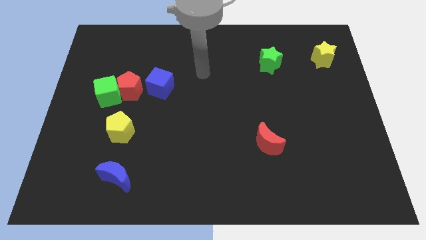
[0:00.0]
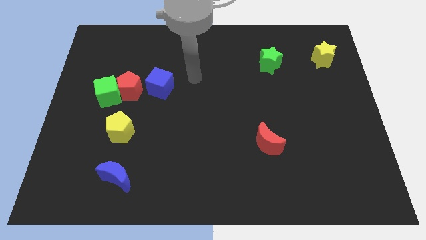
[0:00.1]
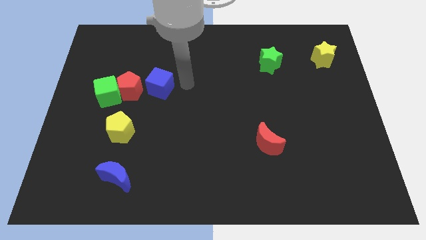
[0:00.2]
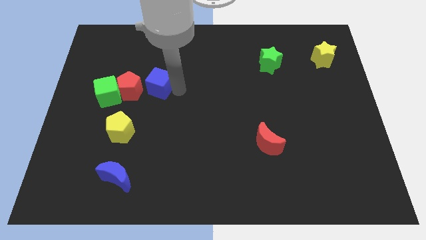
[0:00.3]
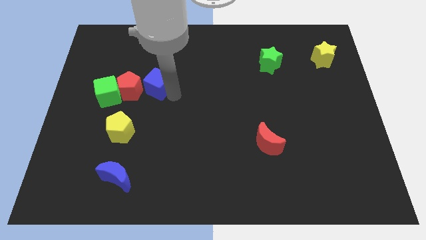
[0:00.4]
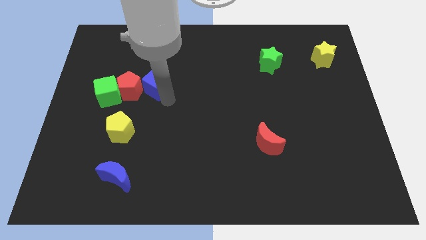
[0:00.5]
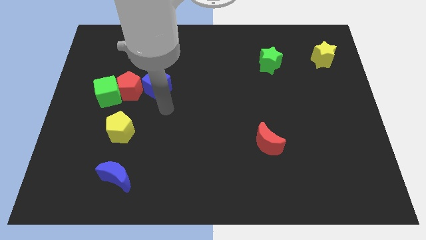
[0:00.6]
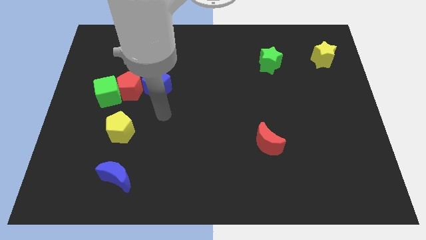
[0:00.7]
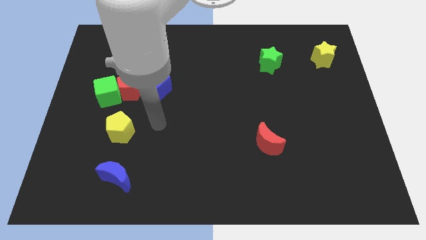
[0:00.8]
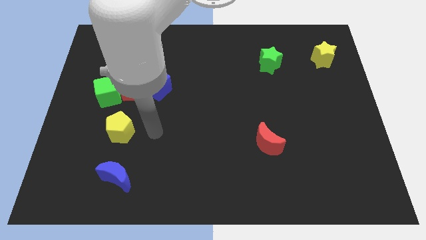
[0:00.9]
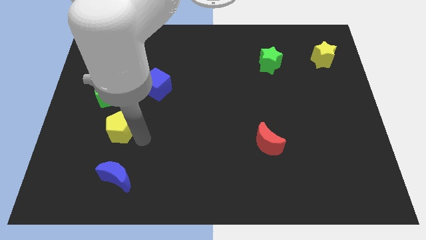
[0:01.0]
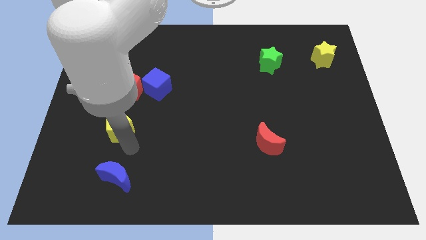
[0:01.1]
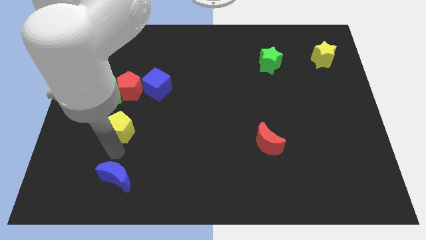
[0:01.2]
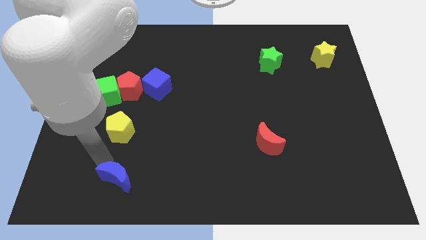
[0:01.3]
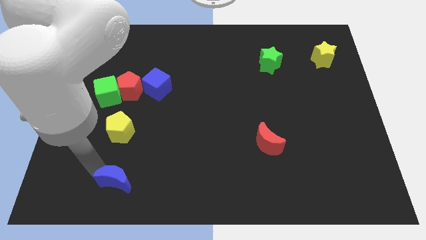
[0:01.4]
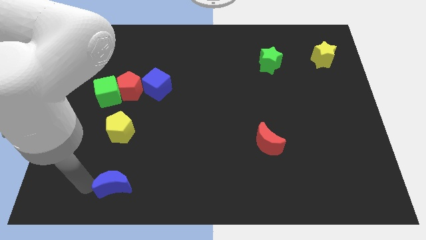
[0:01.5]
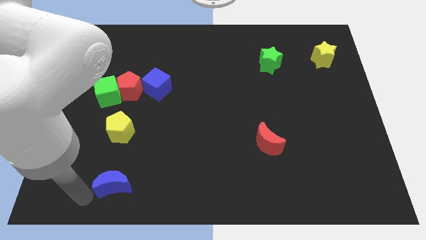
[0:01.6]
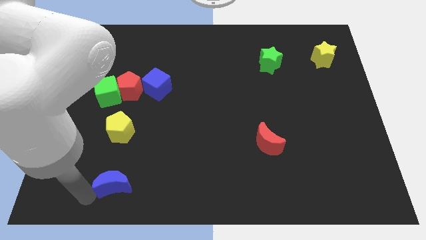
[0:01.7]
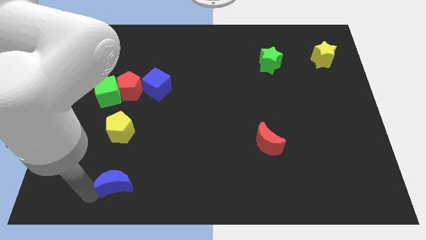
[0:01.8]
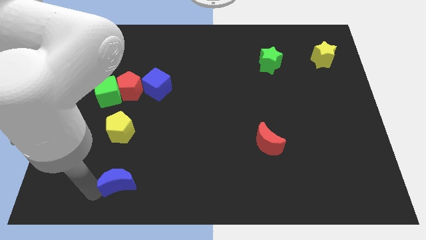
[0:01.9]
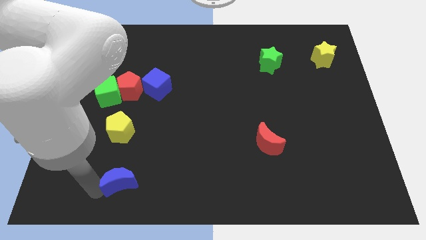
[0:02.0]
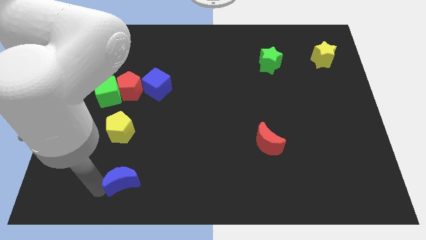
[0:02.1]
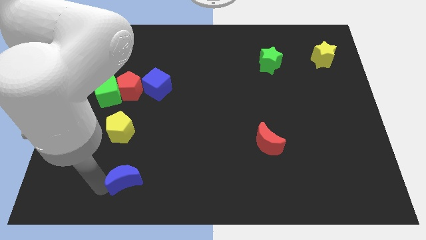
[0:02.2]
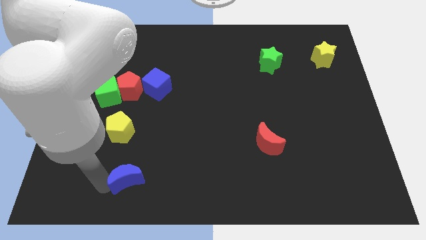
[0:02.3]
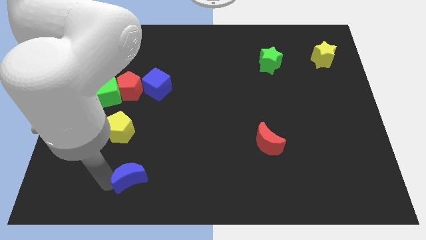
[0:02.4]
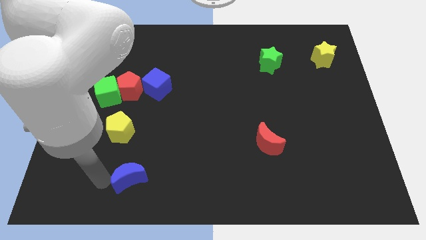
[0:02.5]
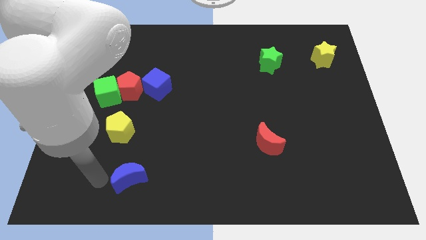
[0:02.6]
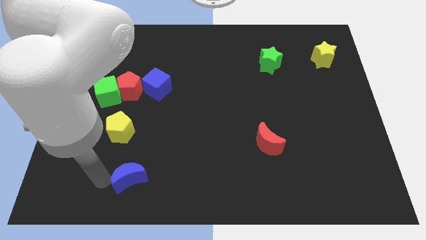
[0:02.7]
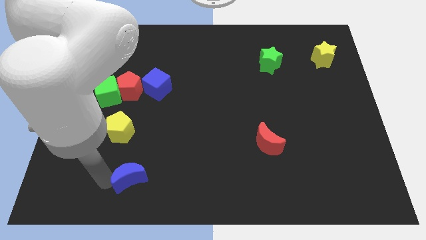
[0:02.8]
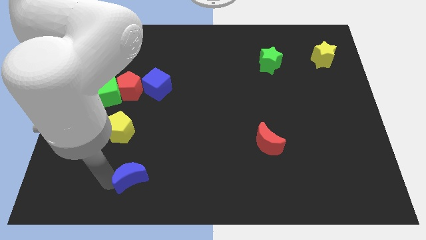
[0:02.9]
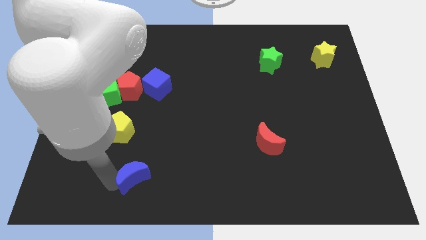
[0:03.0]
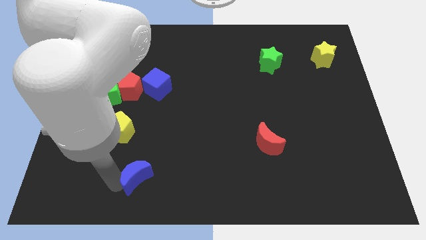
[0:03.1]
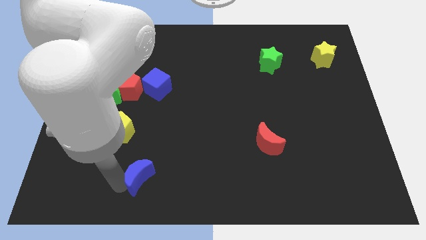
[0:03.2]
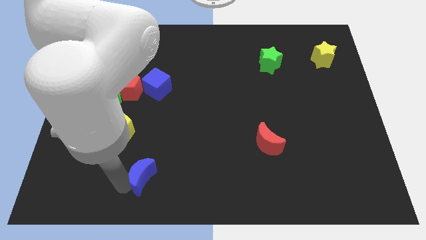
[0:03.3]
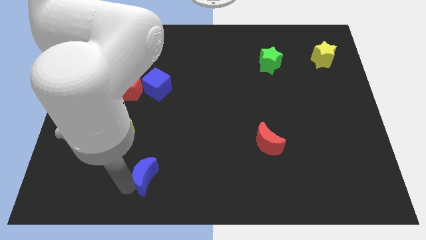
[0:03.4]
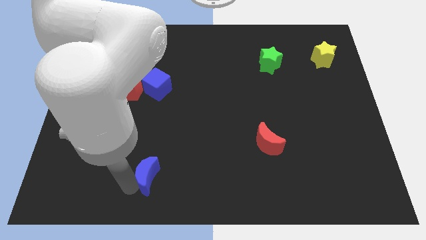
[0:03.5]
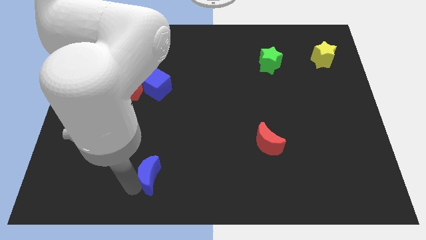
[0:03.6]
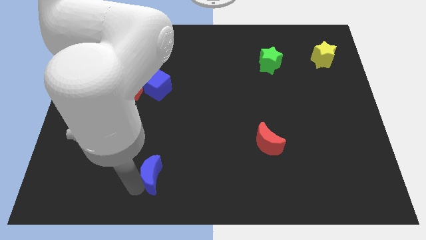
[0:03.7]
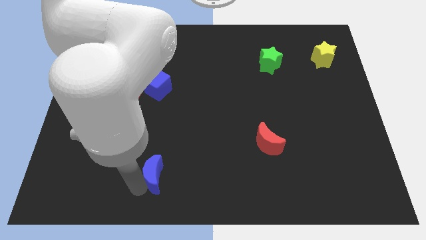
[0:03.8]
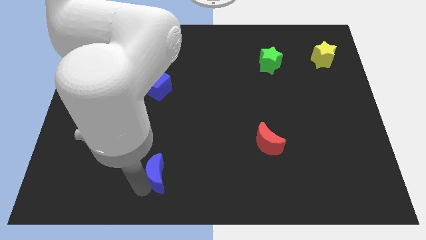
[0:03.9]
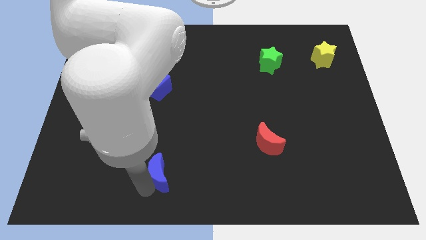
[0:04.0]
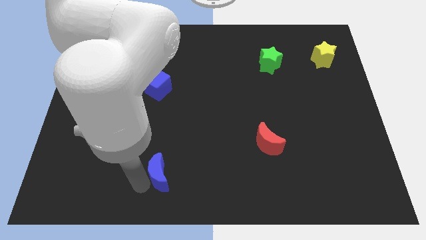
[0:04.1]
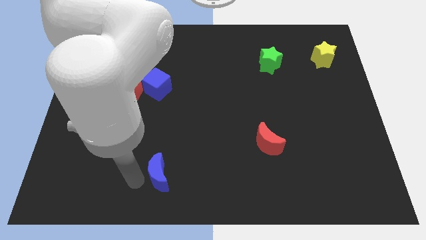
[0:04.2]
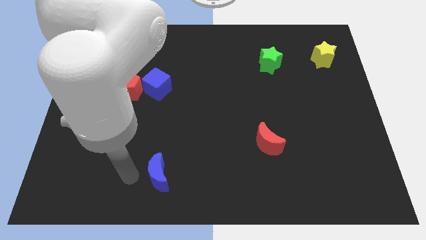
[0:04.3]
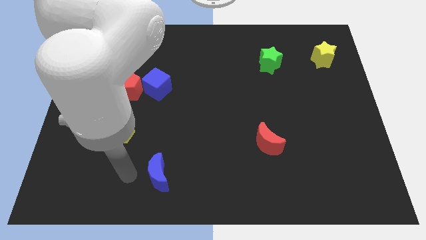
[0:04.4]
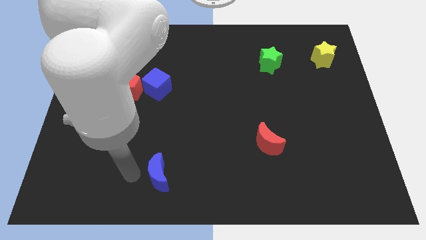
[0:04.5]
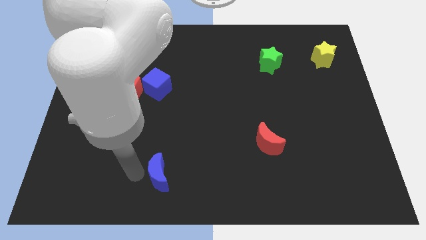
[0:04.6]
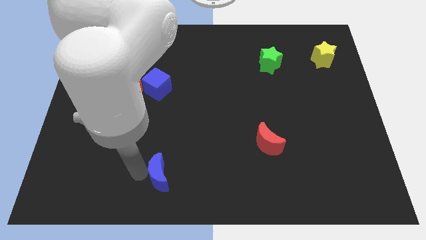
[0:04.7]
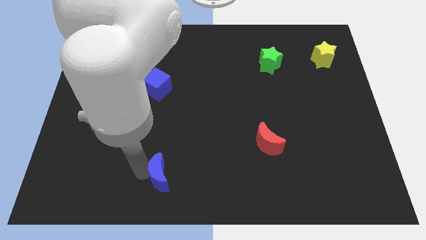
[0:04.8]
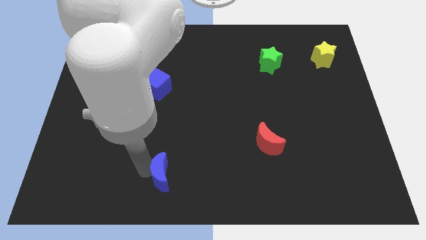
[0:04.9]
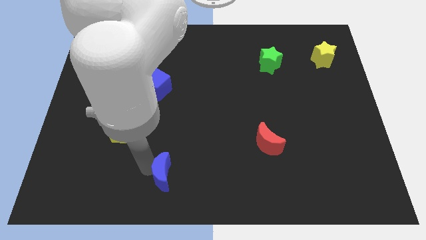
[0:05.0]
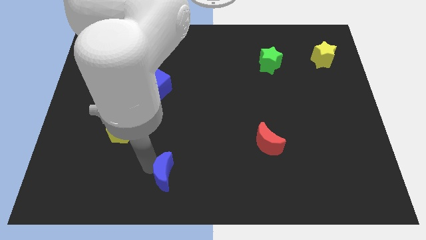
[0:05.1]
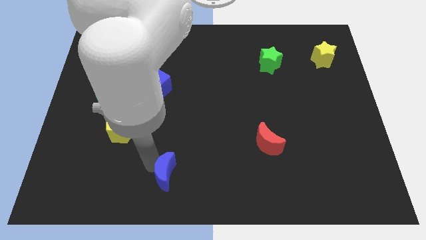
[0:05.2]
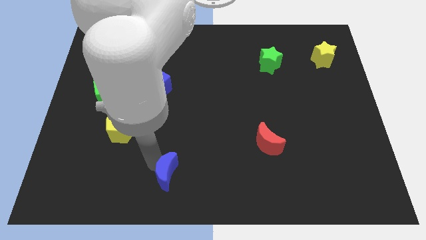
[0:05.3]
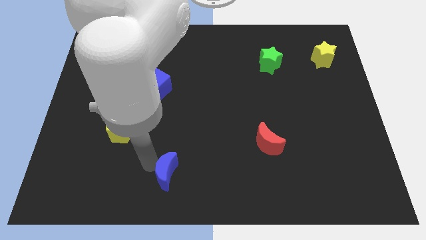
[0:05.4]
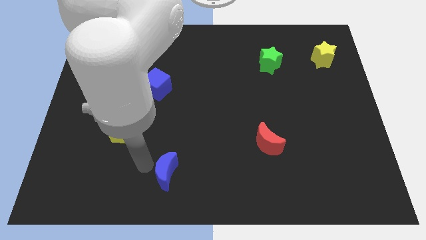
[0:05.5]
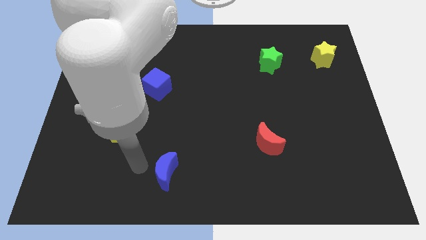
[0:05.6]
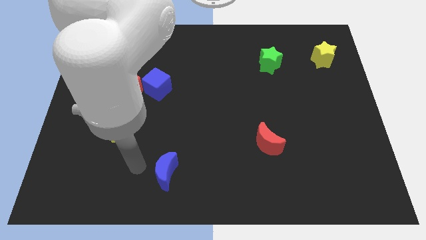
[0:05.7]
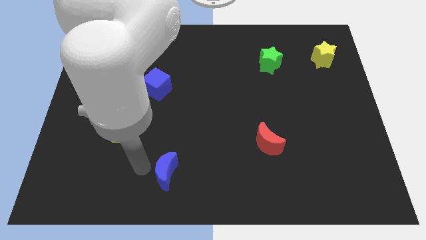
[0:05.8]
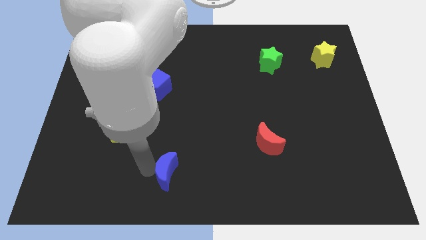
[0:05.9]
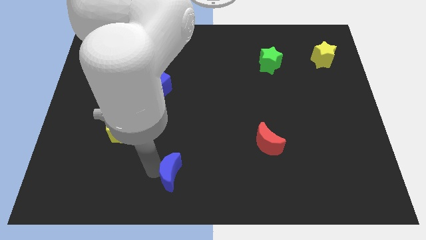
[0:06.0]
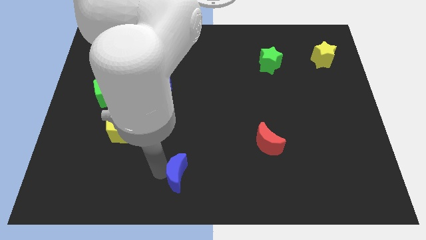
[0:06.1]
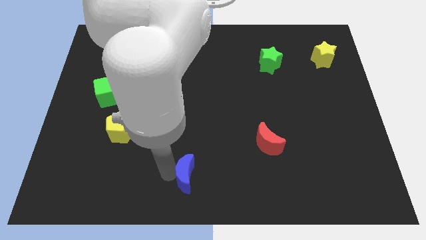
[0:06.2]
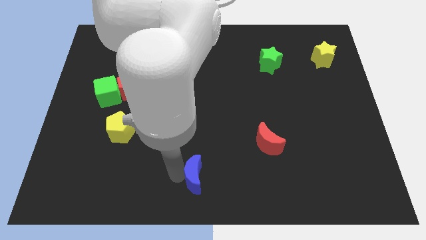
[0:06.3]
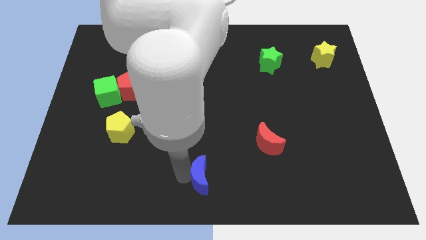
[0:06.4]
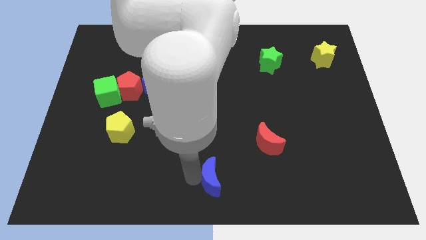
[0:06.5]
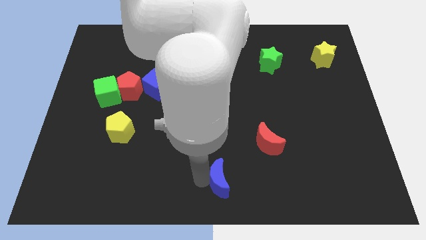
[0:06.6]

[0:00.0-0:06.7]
move the blue moon to the right

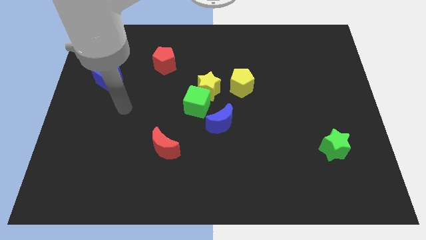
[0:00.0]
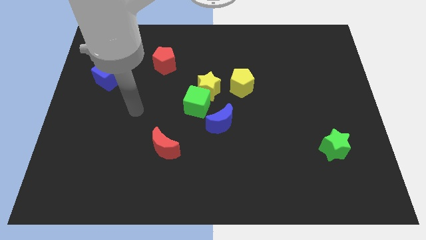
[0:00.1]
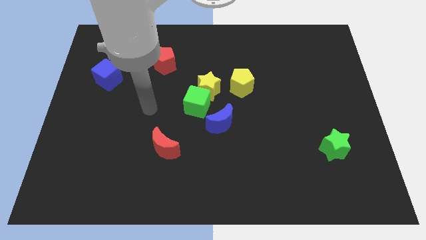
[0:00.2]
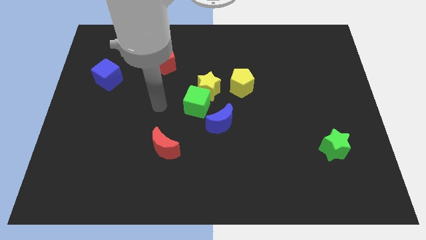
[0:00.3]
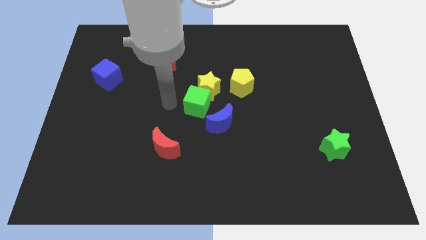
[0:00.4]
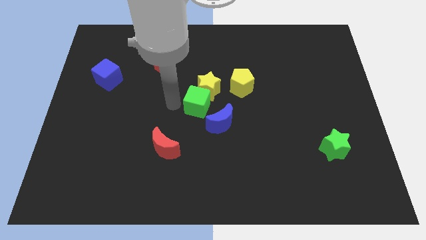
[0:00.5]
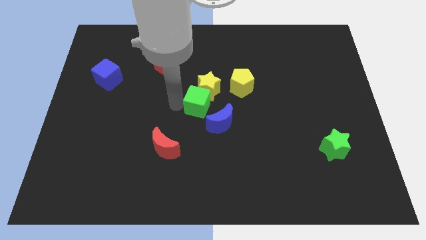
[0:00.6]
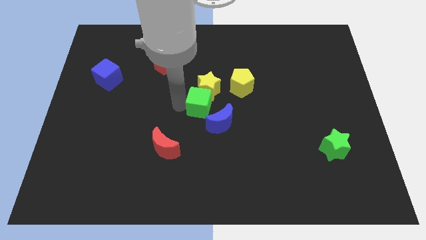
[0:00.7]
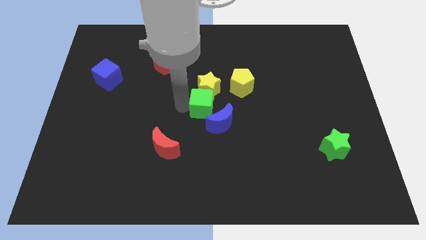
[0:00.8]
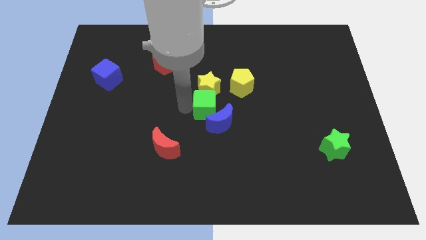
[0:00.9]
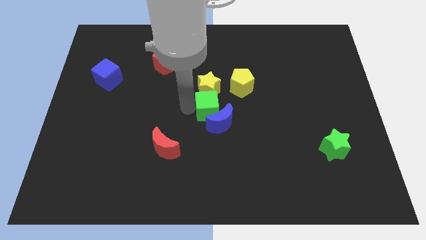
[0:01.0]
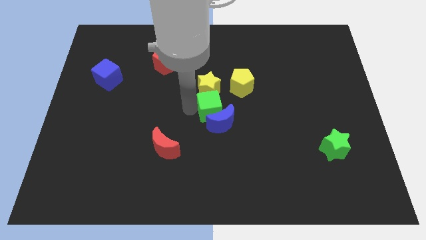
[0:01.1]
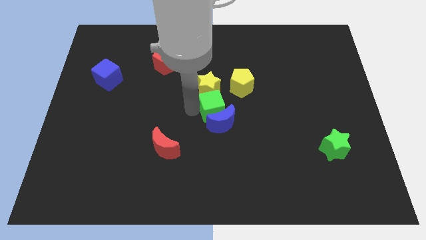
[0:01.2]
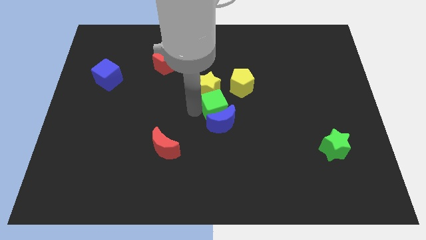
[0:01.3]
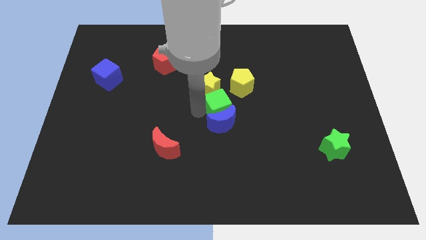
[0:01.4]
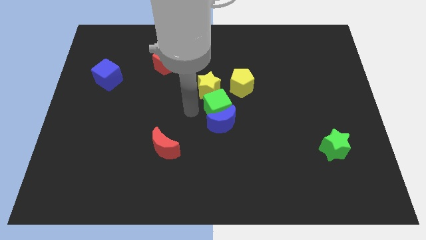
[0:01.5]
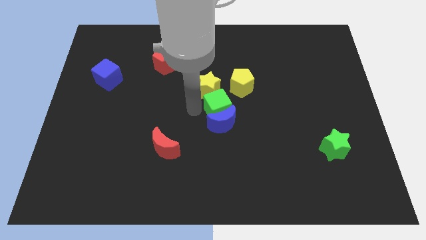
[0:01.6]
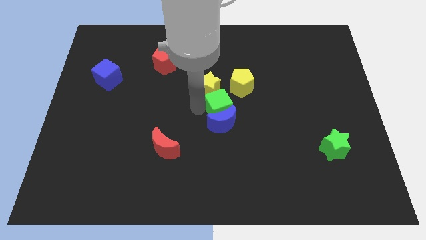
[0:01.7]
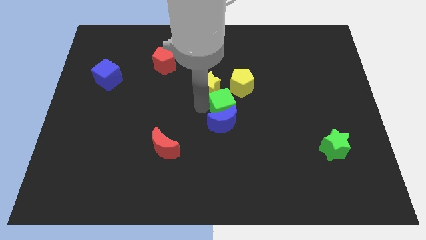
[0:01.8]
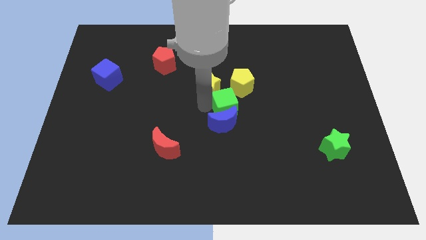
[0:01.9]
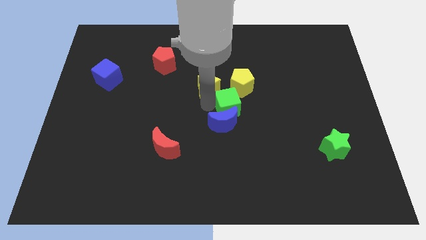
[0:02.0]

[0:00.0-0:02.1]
move the green cube a little bit right
